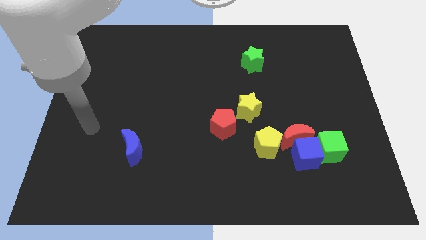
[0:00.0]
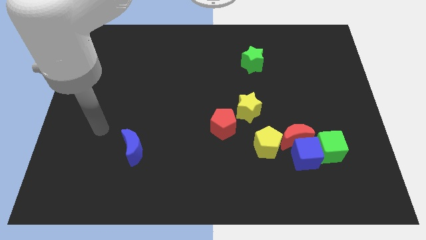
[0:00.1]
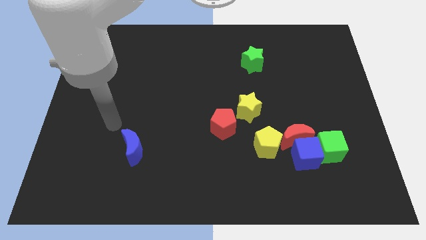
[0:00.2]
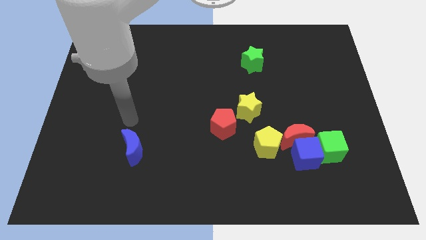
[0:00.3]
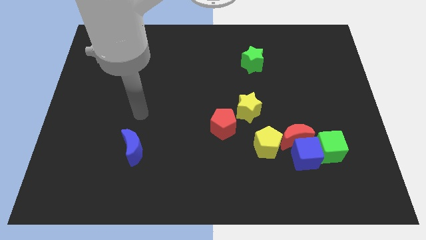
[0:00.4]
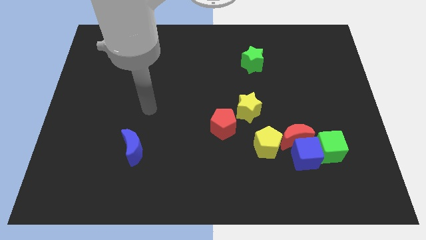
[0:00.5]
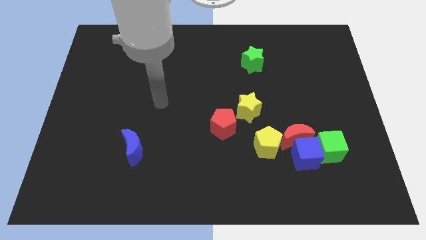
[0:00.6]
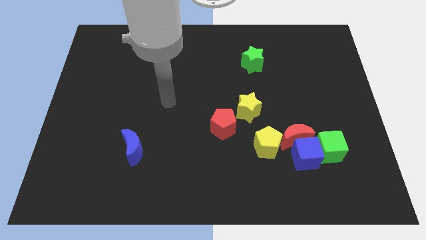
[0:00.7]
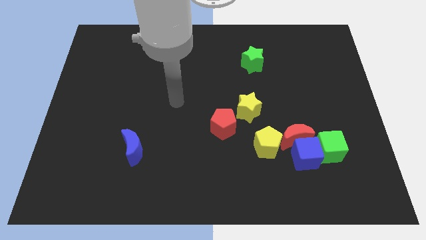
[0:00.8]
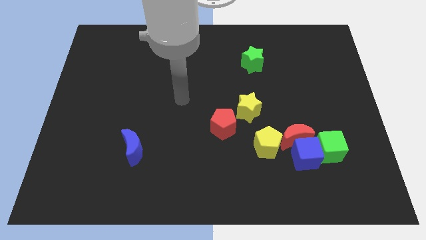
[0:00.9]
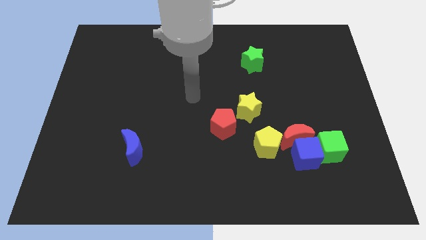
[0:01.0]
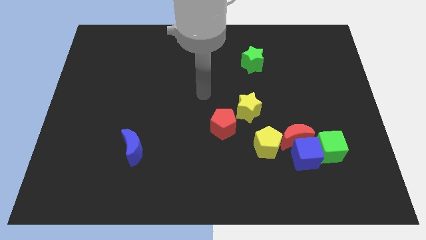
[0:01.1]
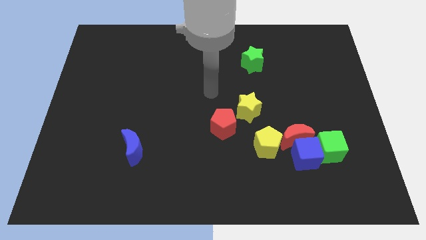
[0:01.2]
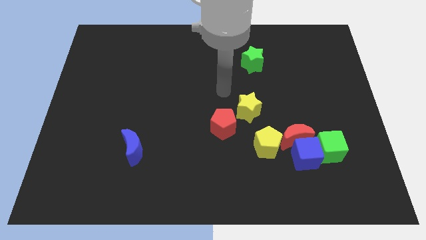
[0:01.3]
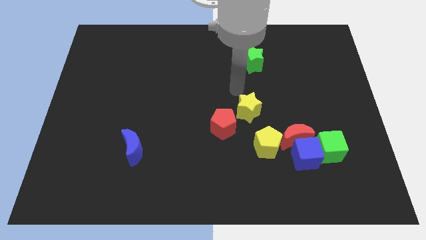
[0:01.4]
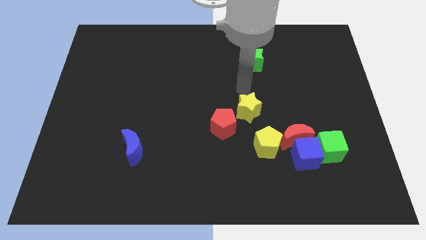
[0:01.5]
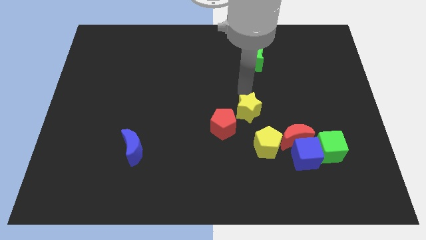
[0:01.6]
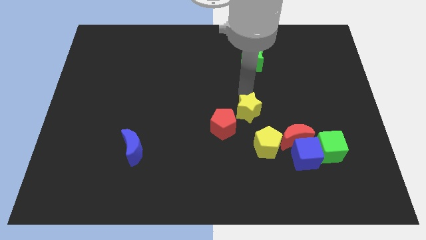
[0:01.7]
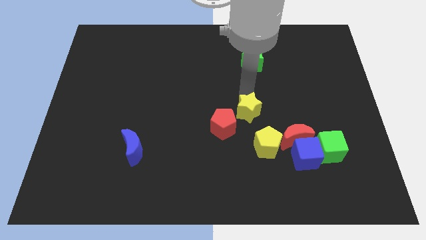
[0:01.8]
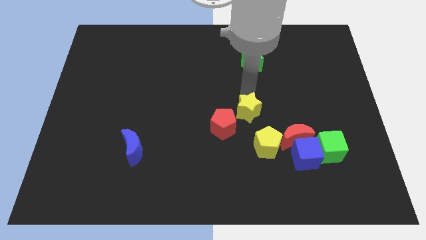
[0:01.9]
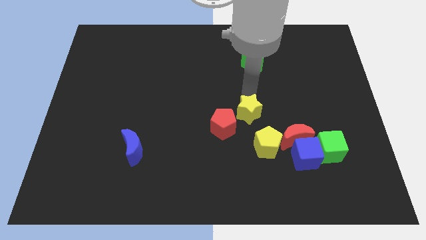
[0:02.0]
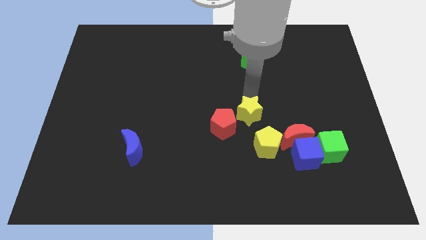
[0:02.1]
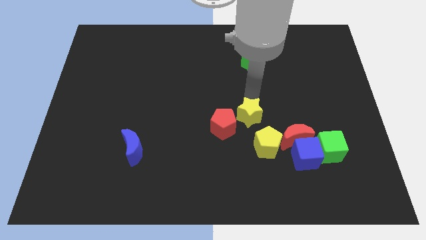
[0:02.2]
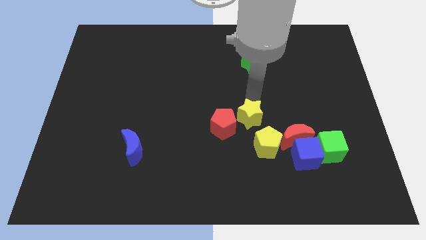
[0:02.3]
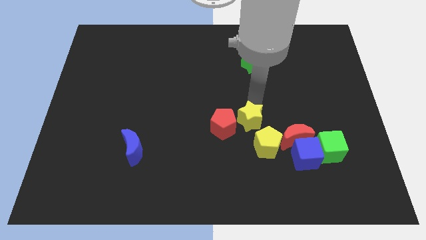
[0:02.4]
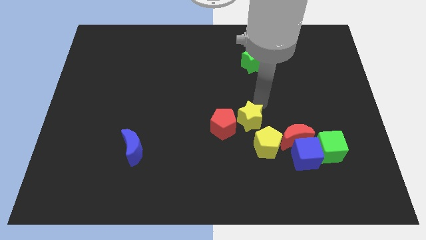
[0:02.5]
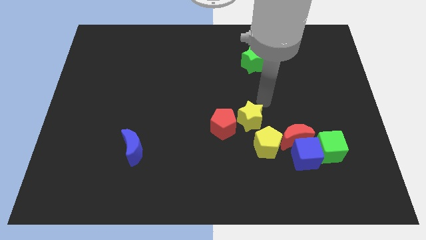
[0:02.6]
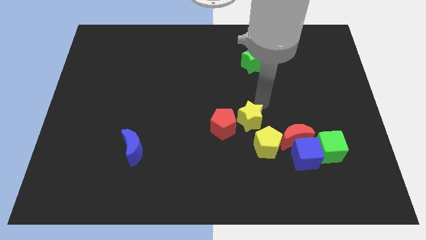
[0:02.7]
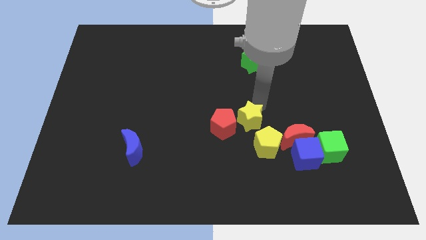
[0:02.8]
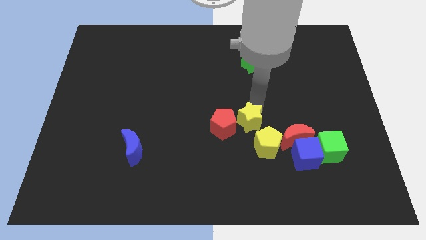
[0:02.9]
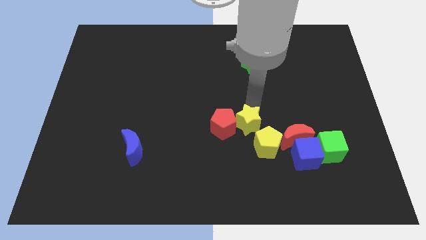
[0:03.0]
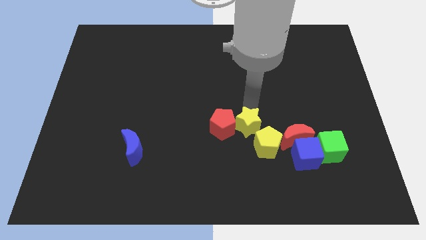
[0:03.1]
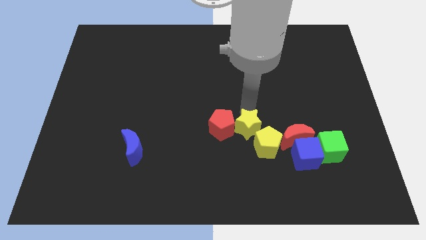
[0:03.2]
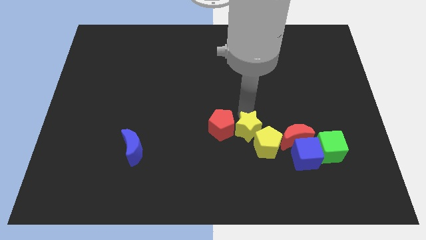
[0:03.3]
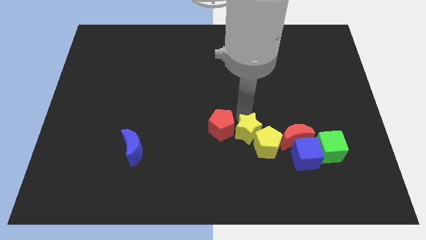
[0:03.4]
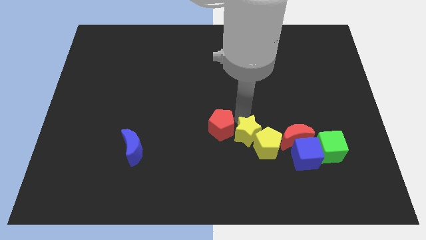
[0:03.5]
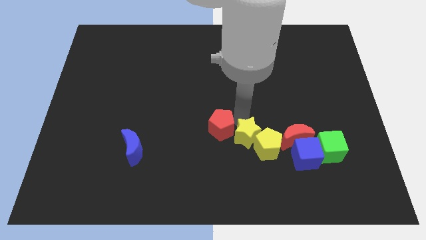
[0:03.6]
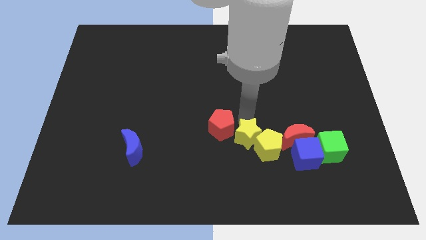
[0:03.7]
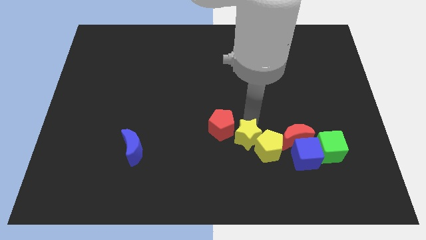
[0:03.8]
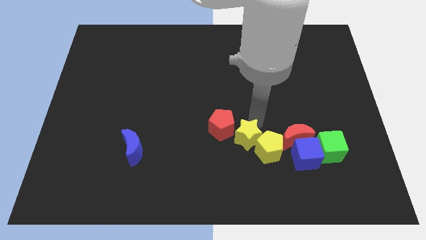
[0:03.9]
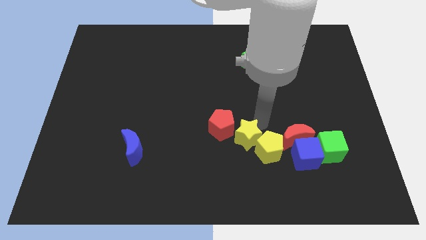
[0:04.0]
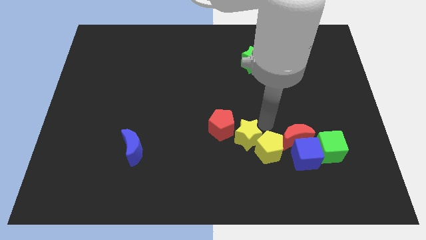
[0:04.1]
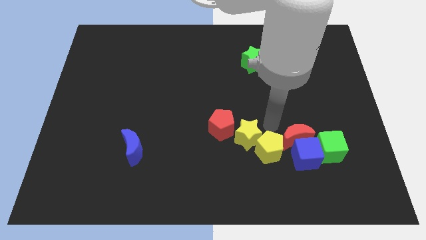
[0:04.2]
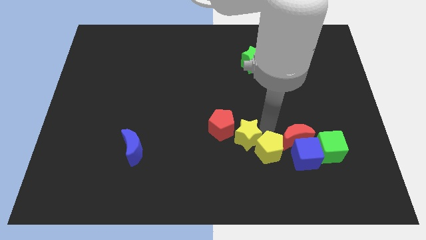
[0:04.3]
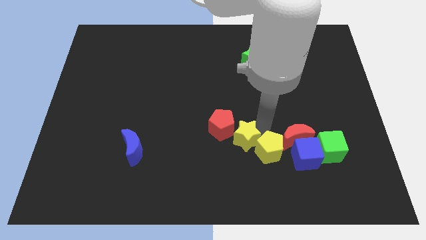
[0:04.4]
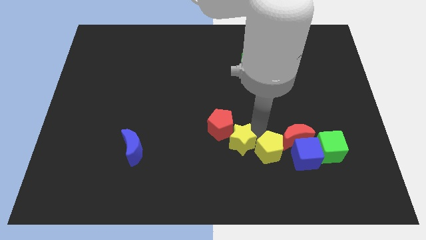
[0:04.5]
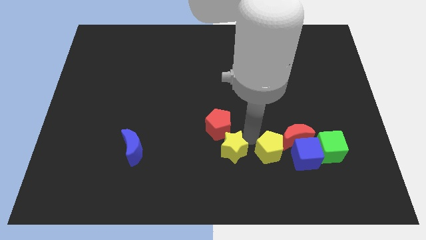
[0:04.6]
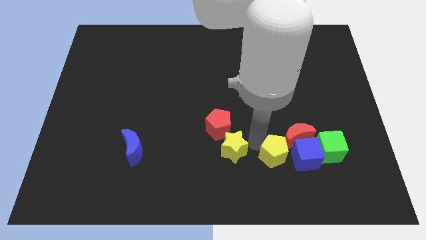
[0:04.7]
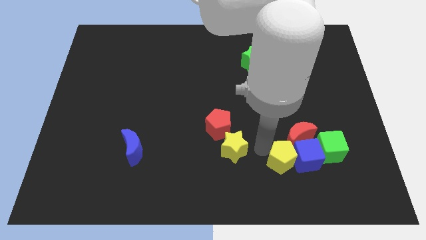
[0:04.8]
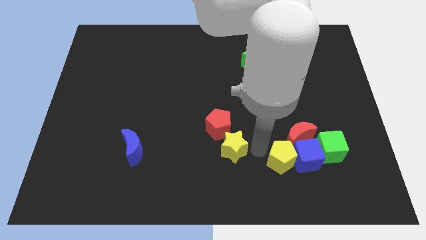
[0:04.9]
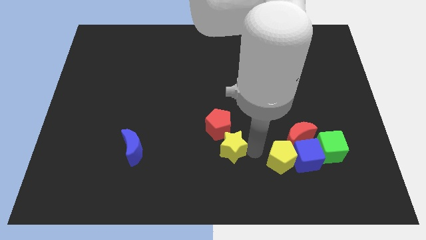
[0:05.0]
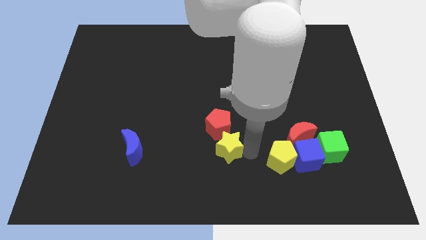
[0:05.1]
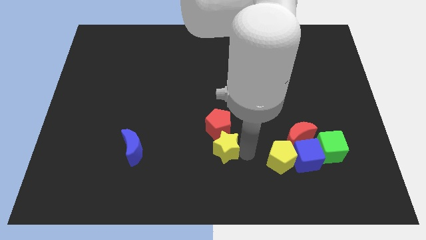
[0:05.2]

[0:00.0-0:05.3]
move the yellow star to the bottom left side of the red pentagon

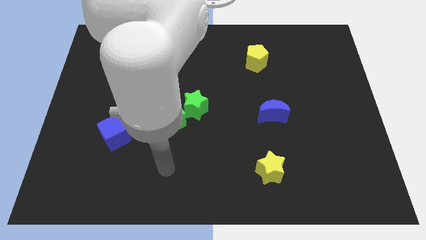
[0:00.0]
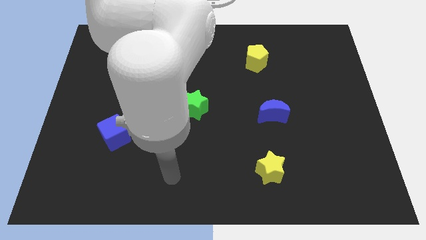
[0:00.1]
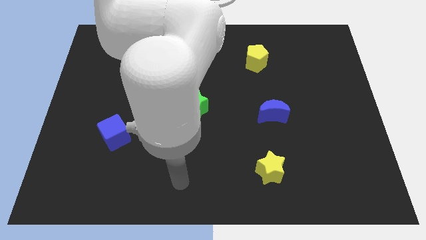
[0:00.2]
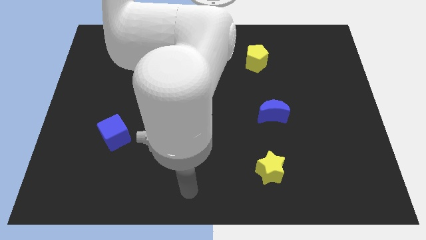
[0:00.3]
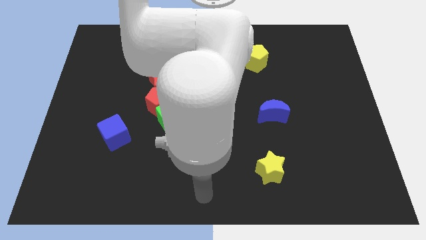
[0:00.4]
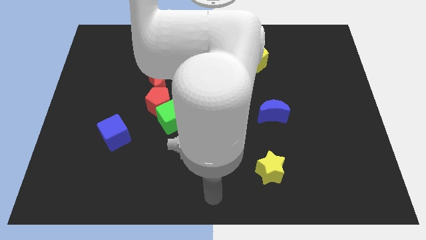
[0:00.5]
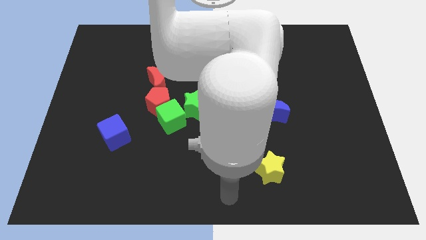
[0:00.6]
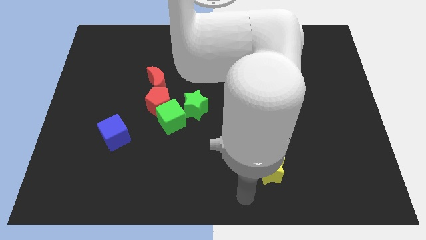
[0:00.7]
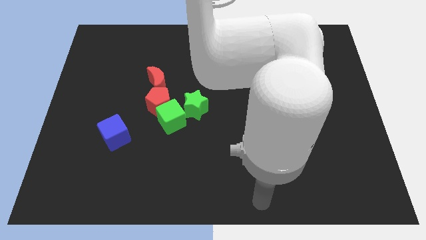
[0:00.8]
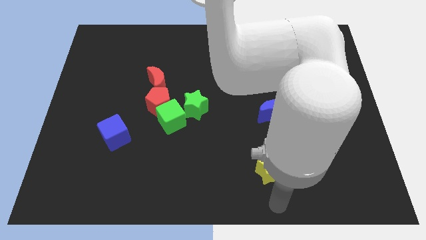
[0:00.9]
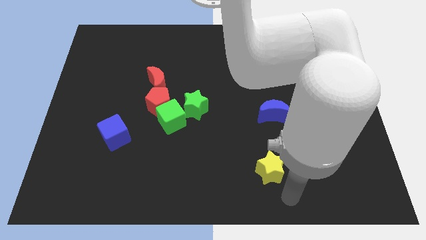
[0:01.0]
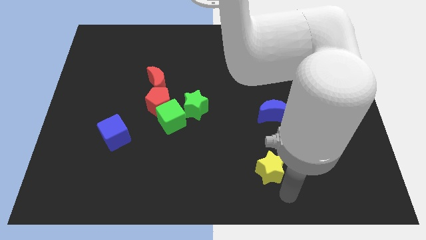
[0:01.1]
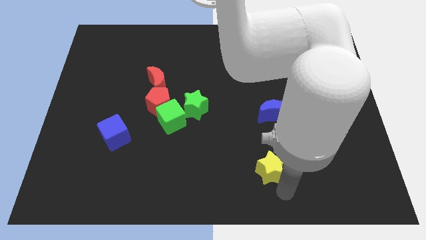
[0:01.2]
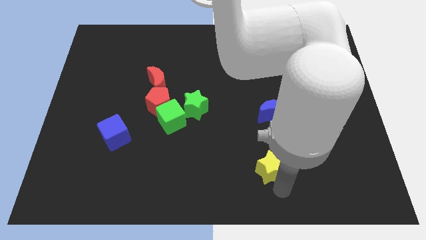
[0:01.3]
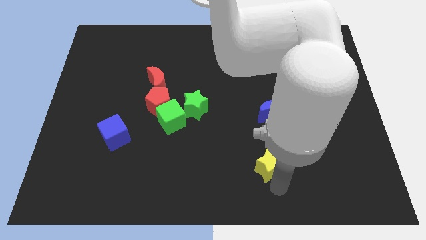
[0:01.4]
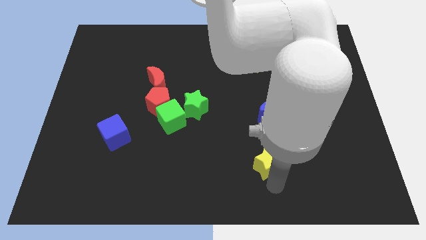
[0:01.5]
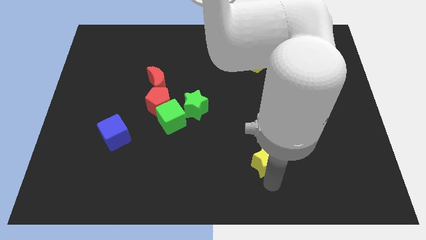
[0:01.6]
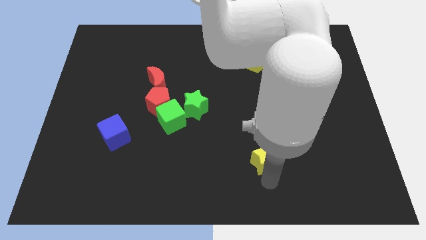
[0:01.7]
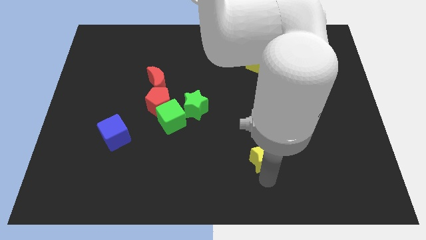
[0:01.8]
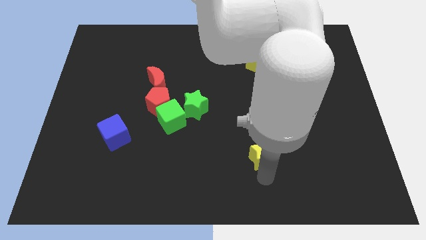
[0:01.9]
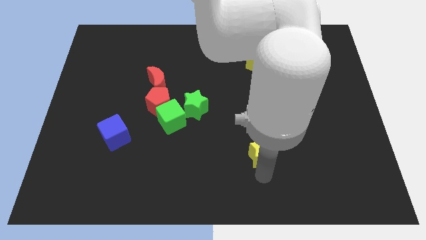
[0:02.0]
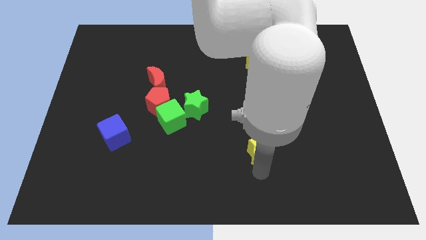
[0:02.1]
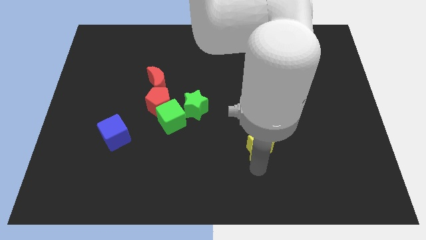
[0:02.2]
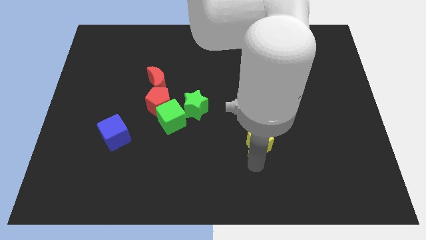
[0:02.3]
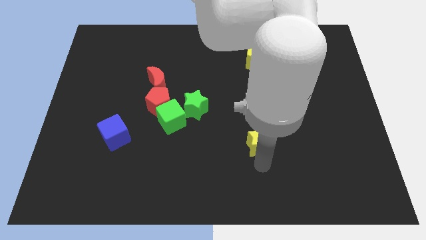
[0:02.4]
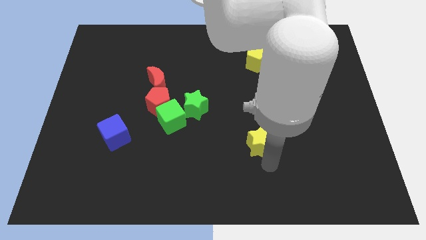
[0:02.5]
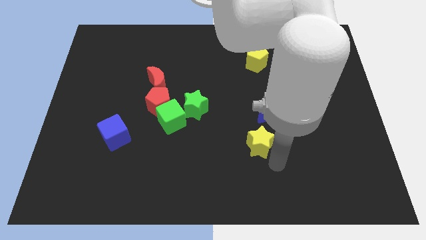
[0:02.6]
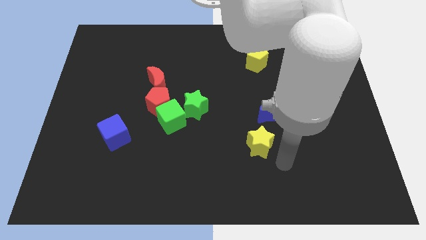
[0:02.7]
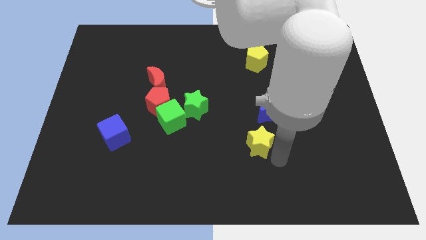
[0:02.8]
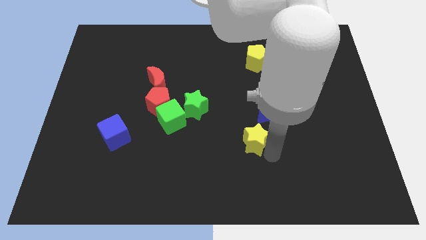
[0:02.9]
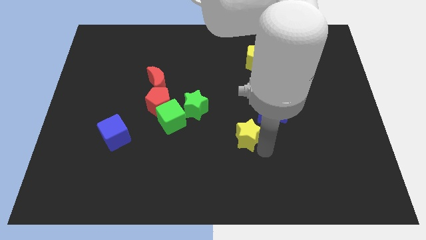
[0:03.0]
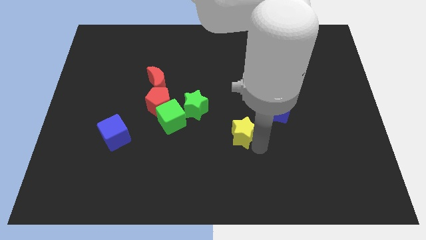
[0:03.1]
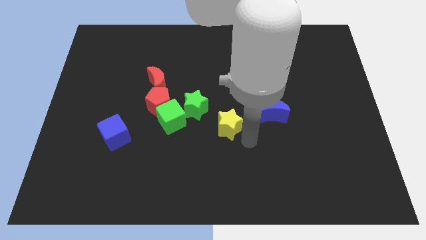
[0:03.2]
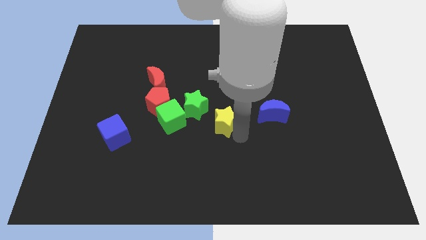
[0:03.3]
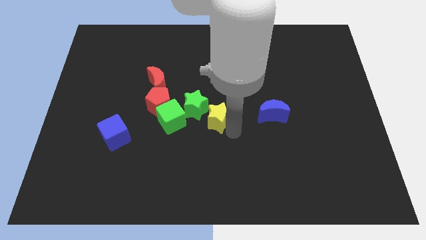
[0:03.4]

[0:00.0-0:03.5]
move the yellow star to the right of the red pentagon
